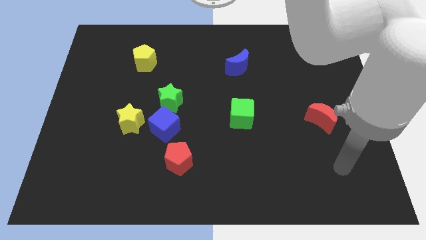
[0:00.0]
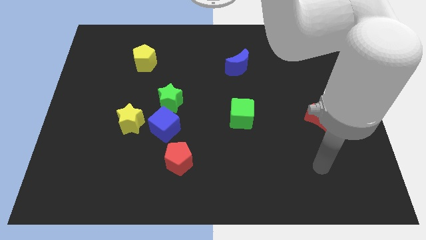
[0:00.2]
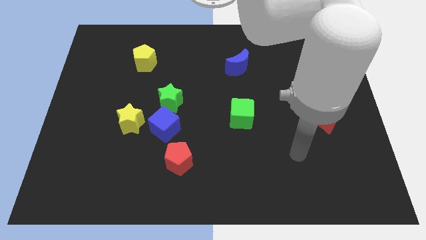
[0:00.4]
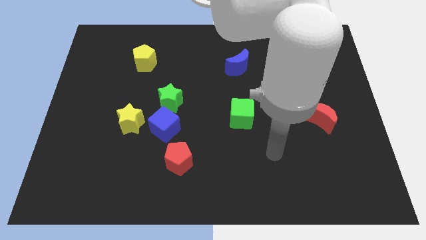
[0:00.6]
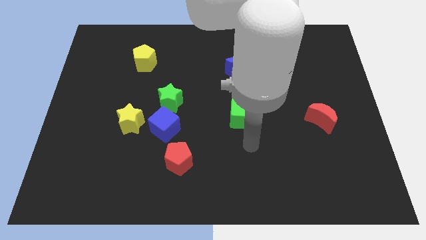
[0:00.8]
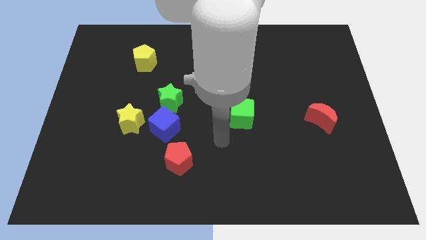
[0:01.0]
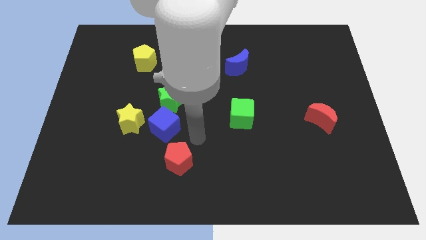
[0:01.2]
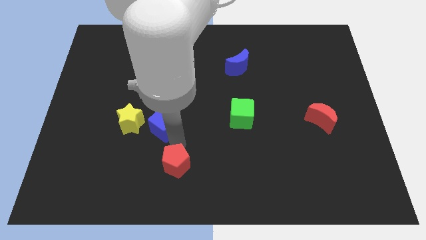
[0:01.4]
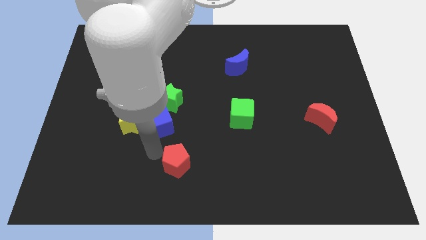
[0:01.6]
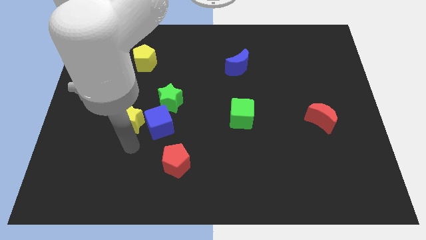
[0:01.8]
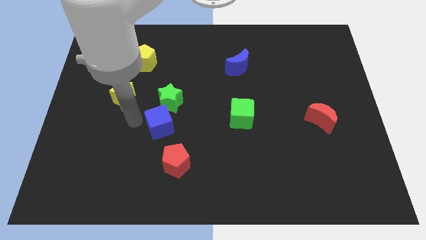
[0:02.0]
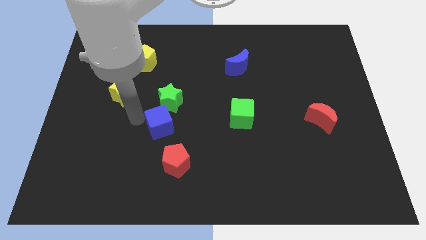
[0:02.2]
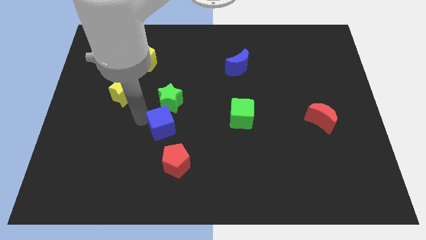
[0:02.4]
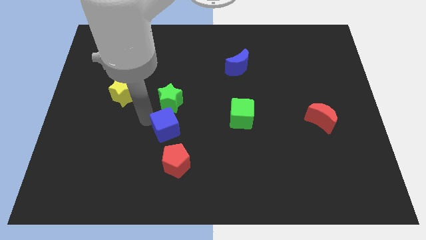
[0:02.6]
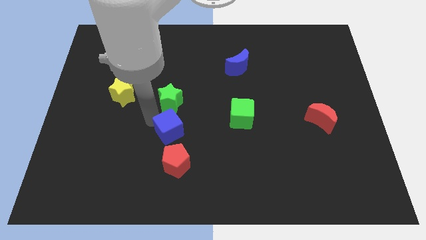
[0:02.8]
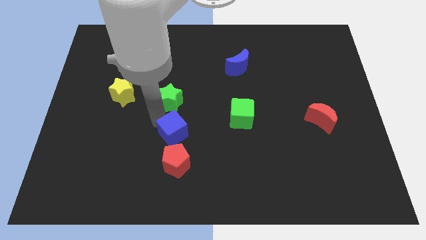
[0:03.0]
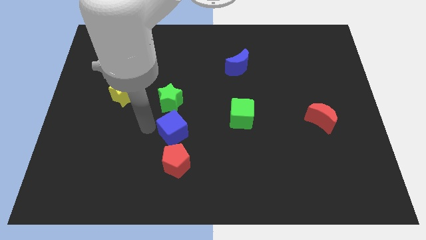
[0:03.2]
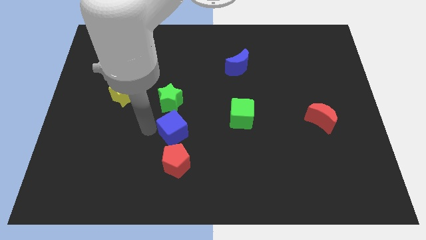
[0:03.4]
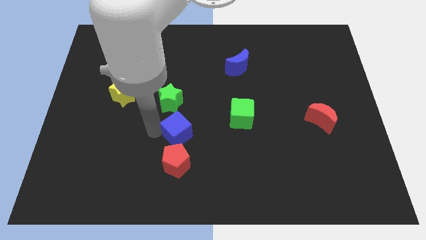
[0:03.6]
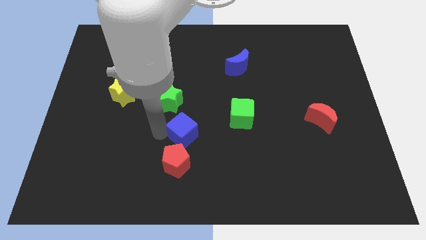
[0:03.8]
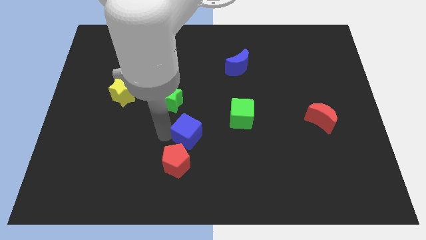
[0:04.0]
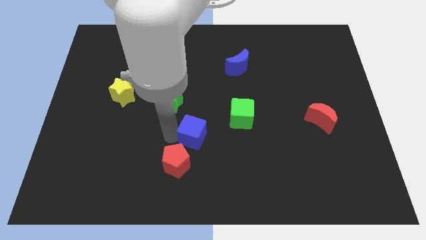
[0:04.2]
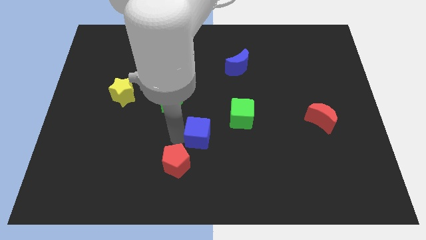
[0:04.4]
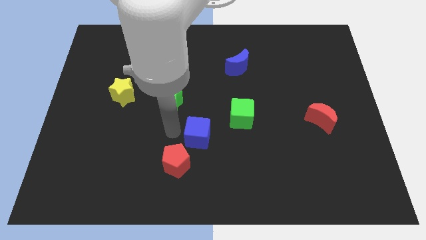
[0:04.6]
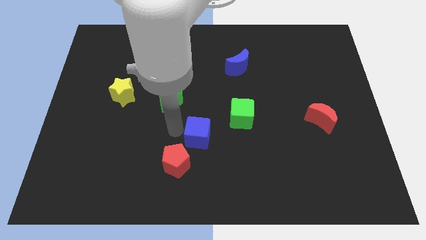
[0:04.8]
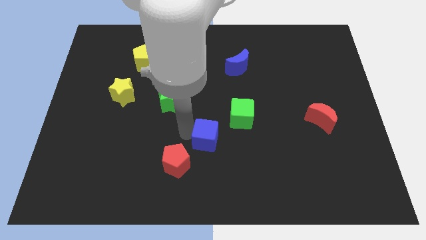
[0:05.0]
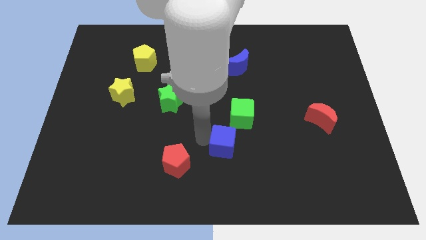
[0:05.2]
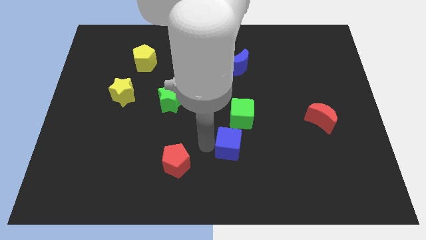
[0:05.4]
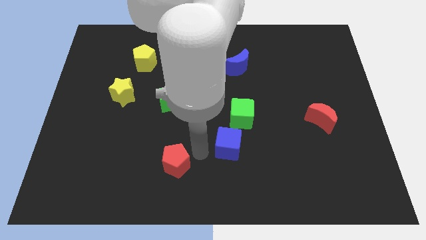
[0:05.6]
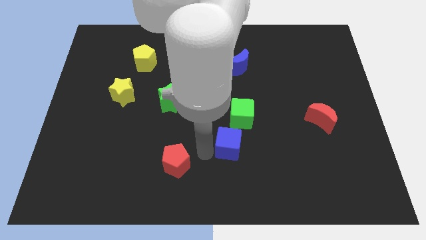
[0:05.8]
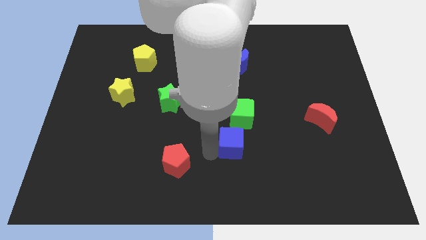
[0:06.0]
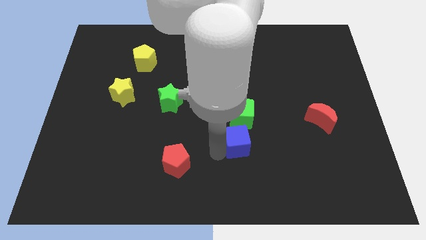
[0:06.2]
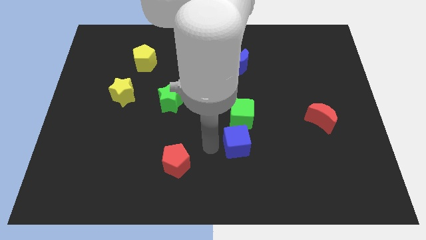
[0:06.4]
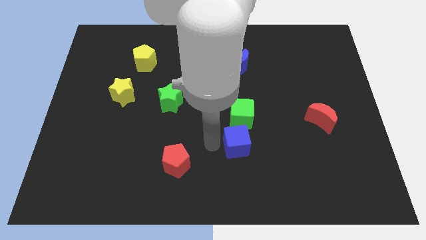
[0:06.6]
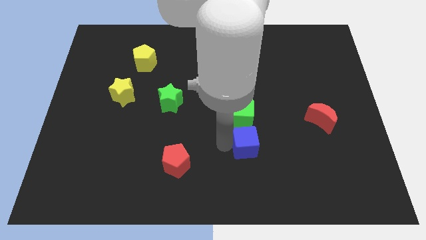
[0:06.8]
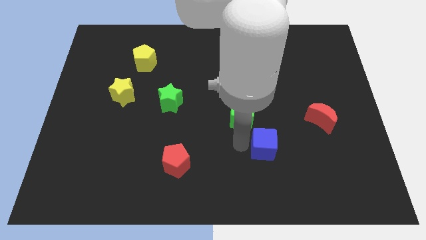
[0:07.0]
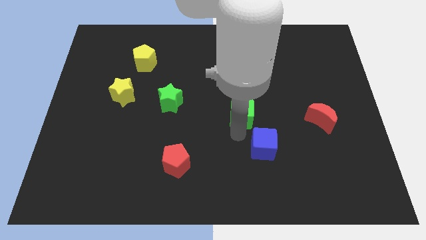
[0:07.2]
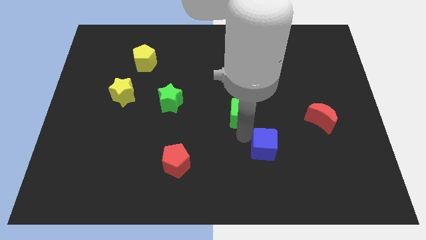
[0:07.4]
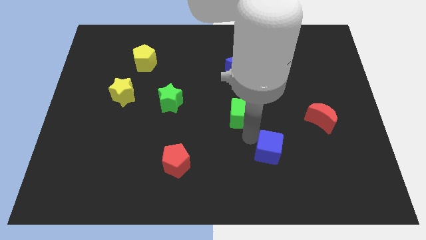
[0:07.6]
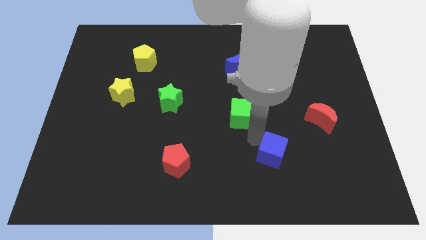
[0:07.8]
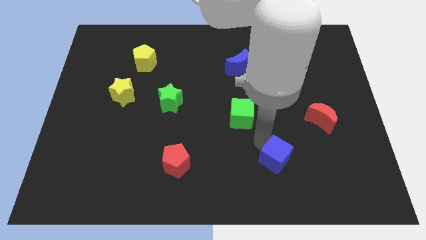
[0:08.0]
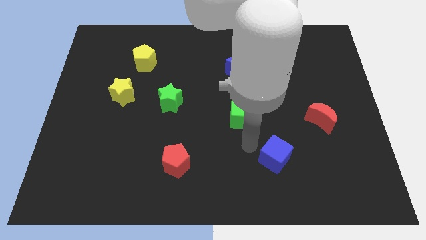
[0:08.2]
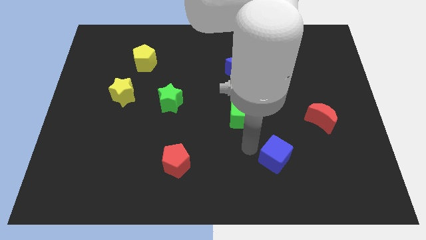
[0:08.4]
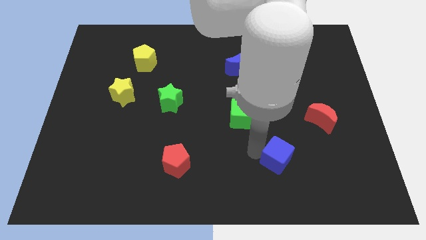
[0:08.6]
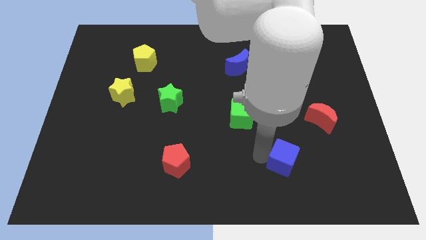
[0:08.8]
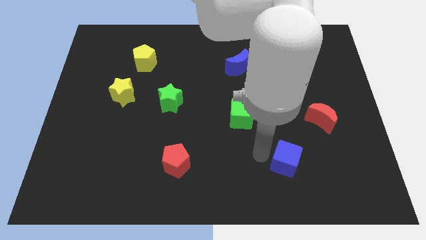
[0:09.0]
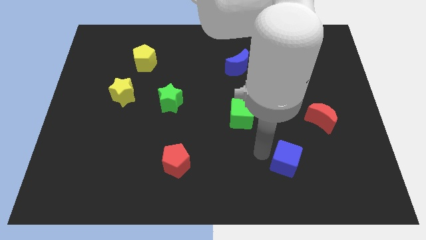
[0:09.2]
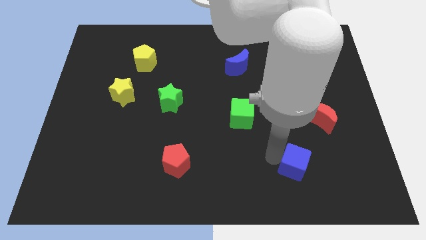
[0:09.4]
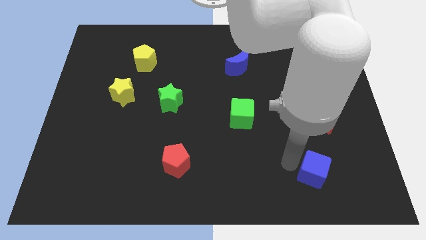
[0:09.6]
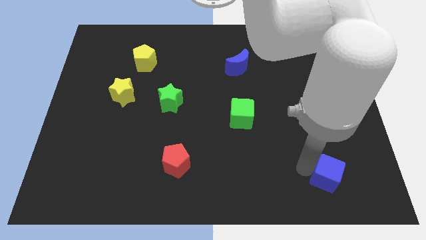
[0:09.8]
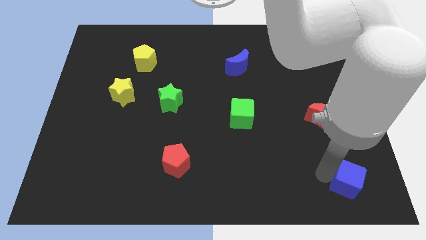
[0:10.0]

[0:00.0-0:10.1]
push the blue cube to the lower right corner

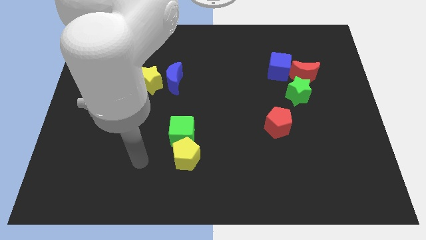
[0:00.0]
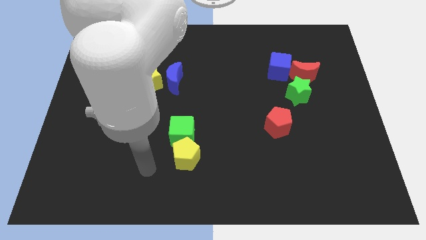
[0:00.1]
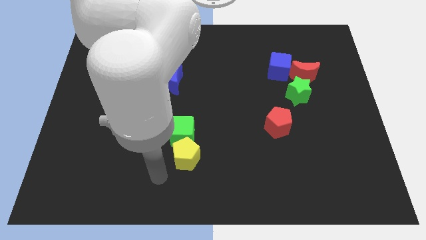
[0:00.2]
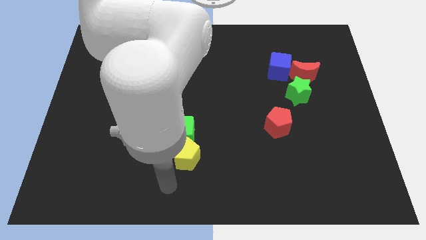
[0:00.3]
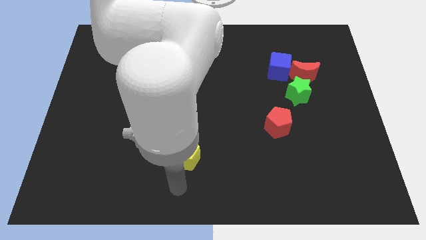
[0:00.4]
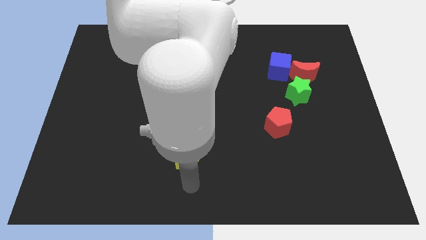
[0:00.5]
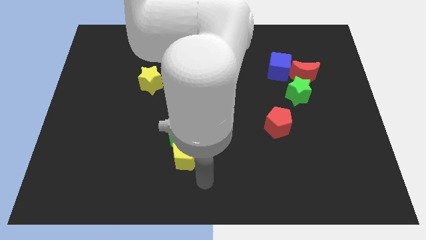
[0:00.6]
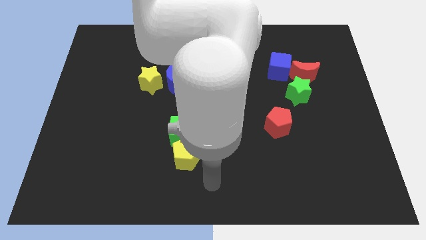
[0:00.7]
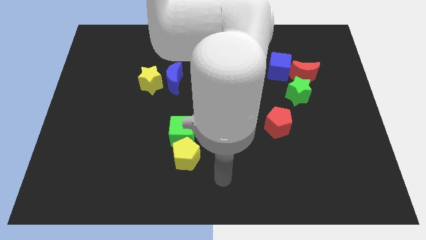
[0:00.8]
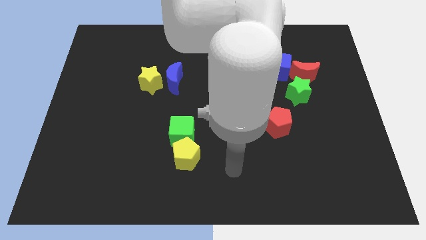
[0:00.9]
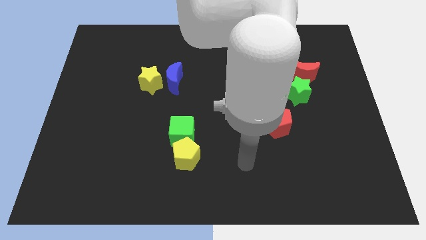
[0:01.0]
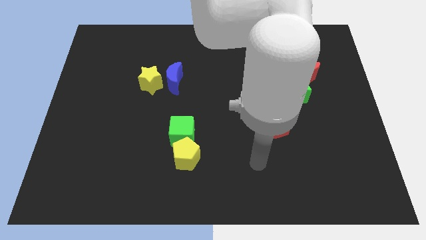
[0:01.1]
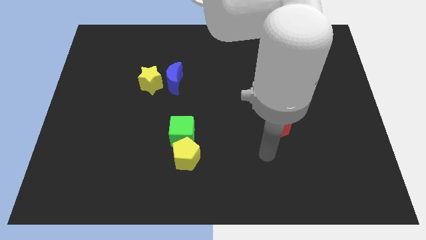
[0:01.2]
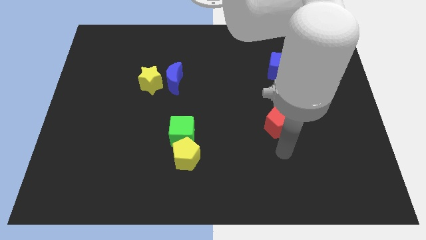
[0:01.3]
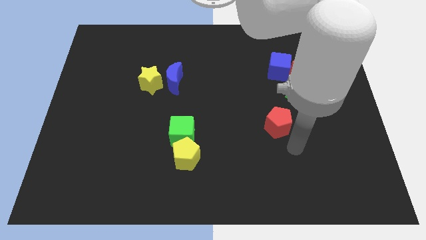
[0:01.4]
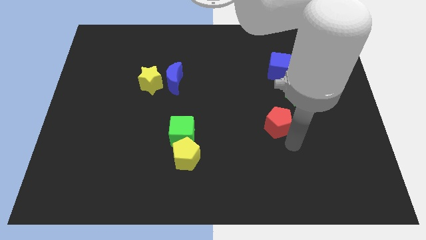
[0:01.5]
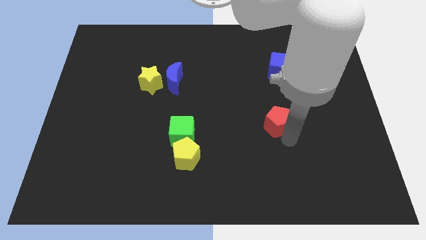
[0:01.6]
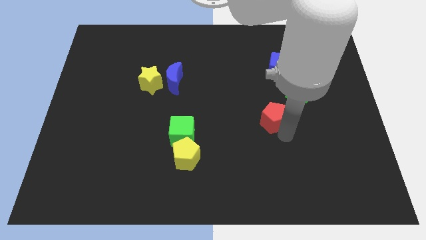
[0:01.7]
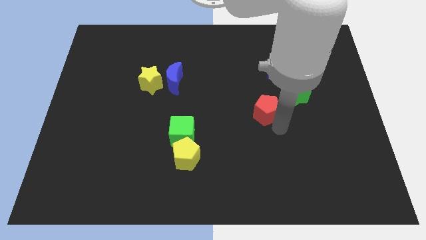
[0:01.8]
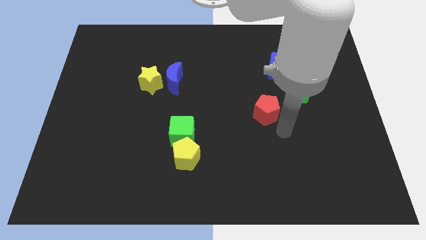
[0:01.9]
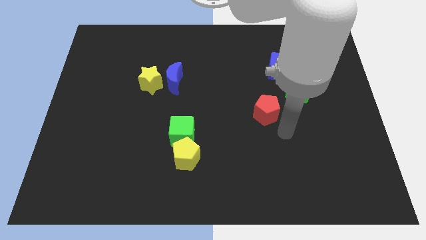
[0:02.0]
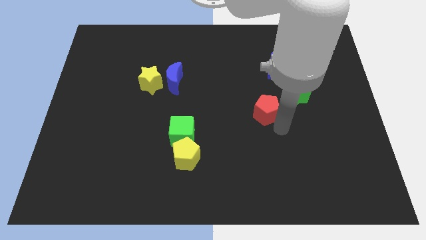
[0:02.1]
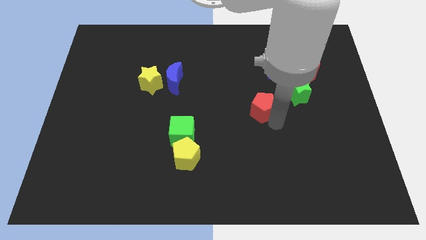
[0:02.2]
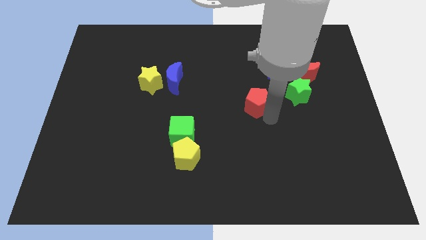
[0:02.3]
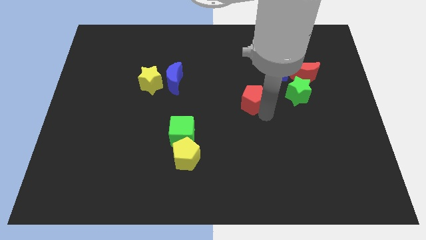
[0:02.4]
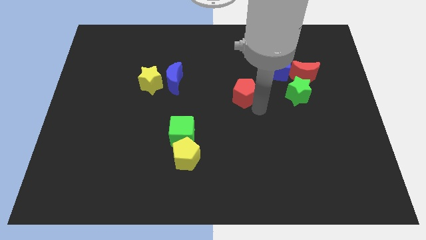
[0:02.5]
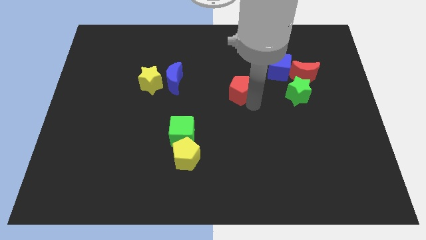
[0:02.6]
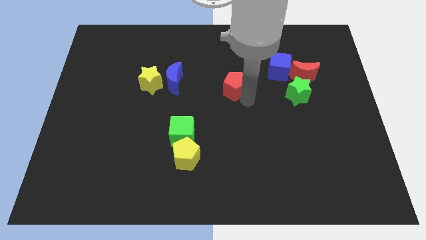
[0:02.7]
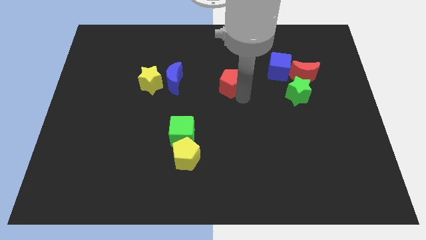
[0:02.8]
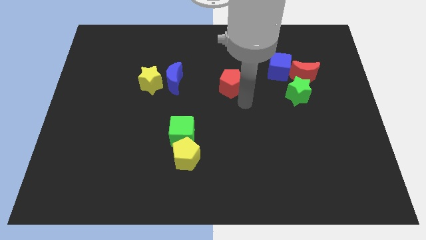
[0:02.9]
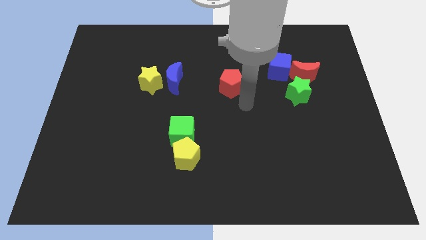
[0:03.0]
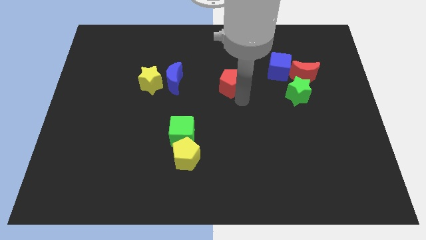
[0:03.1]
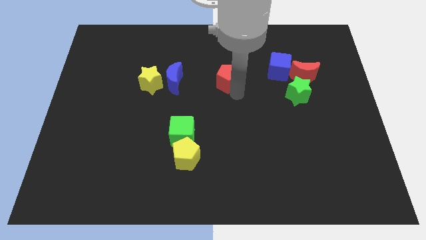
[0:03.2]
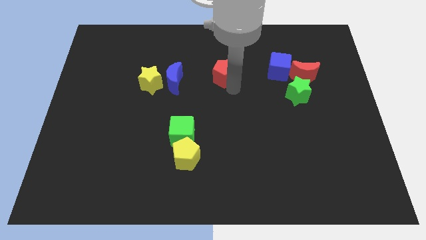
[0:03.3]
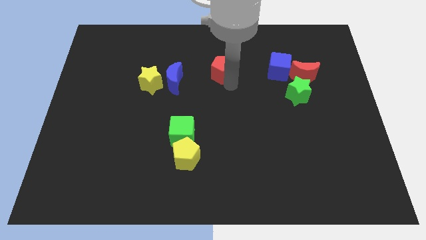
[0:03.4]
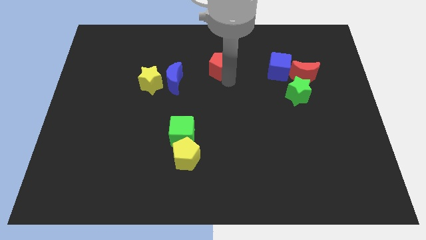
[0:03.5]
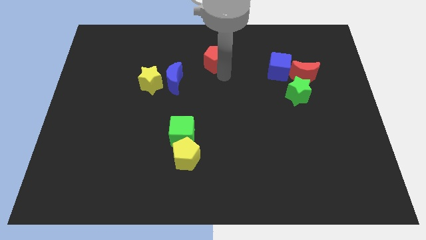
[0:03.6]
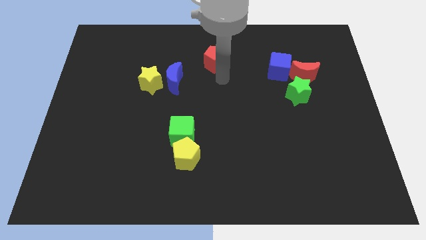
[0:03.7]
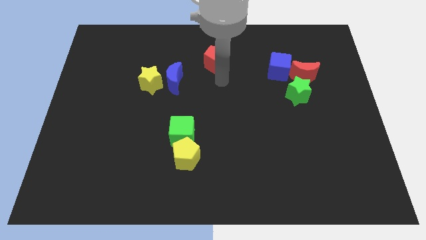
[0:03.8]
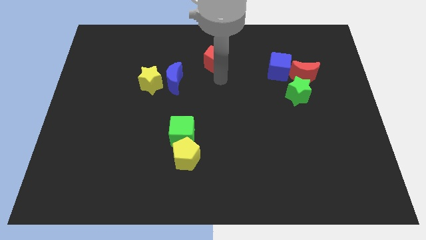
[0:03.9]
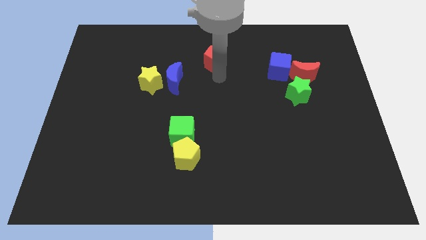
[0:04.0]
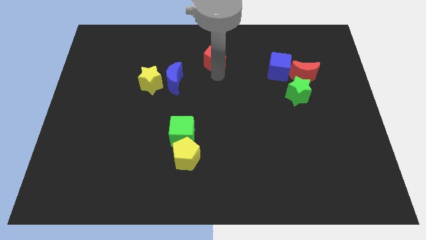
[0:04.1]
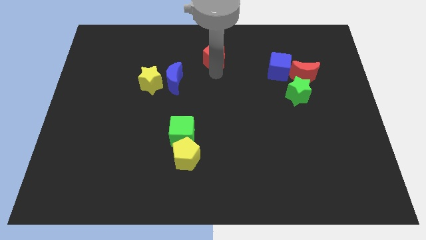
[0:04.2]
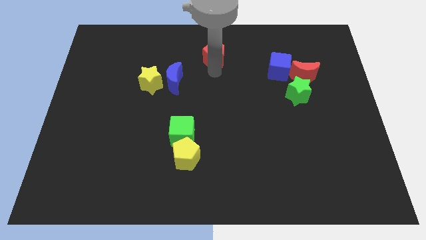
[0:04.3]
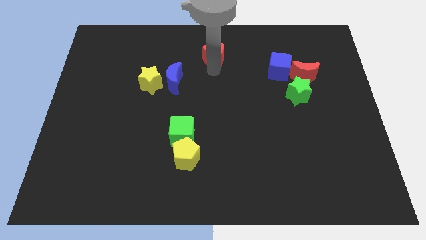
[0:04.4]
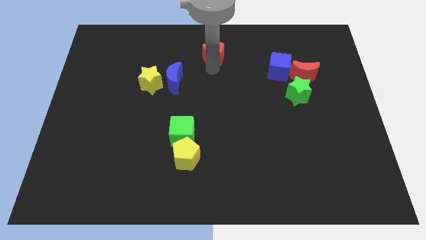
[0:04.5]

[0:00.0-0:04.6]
put the red pentagon to the top side
